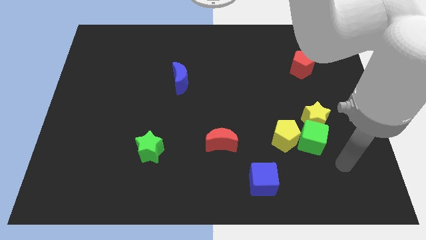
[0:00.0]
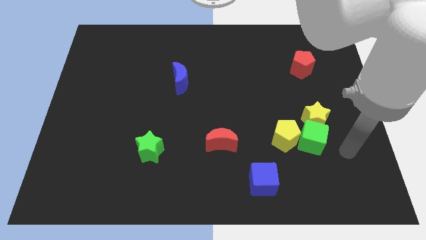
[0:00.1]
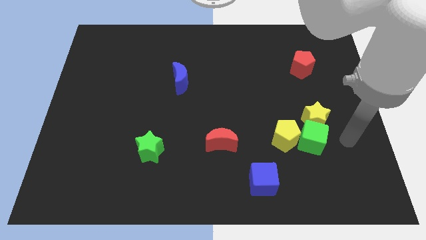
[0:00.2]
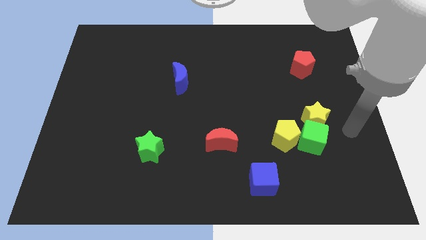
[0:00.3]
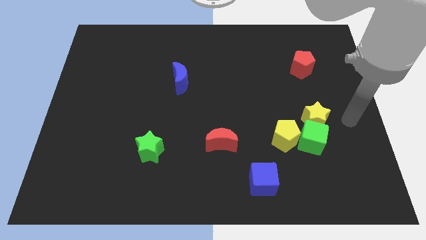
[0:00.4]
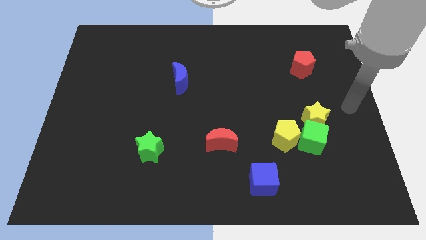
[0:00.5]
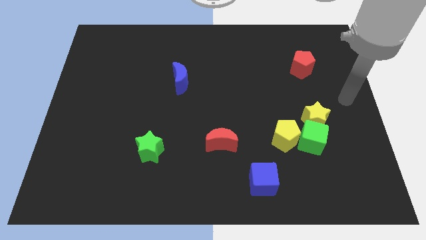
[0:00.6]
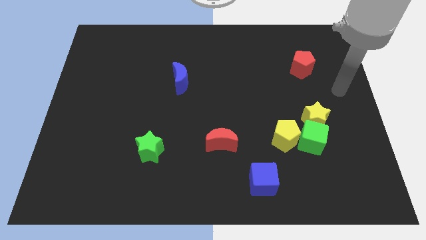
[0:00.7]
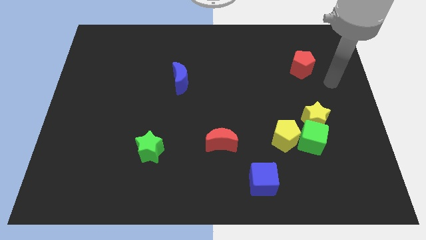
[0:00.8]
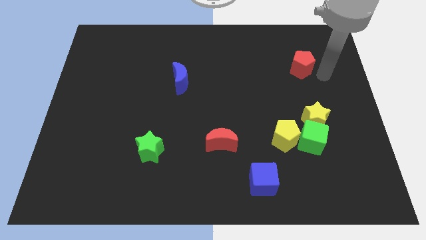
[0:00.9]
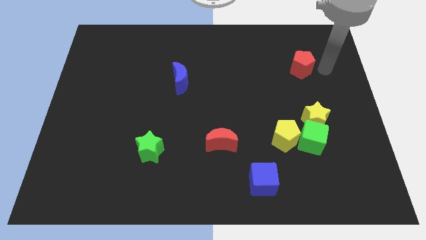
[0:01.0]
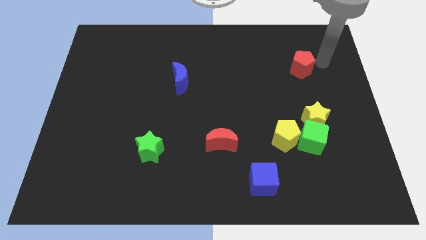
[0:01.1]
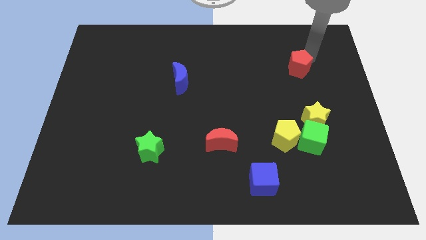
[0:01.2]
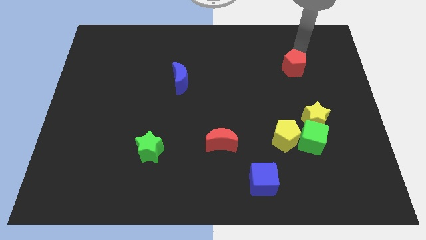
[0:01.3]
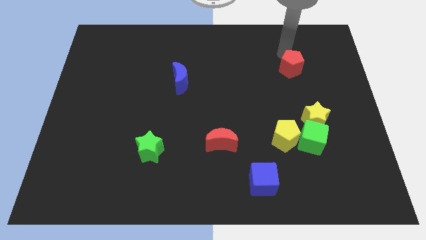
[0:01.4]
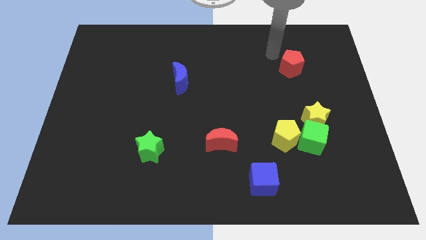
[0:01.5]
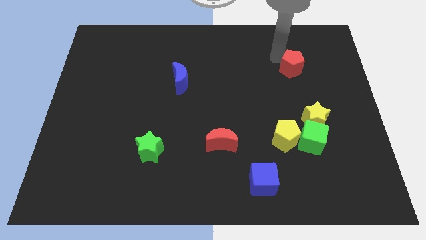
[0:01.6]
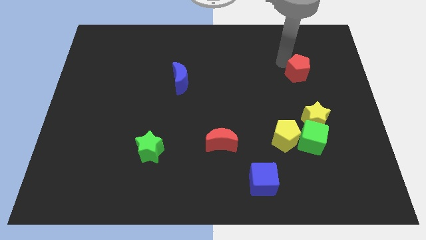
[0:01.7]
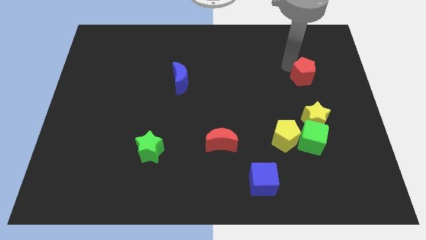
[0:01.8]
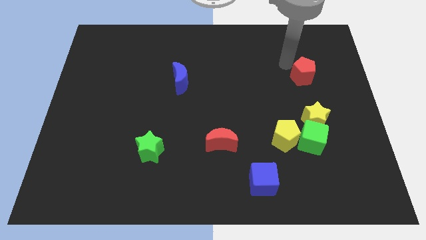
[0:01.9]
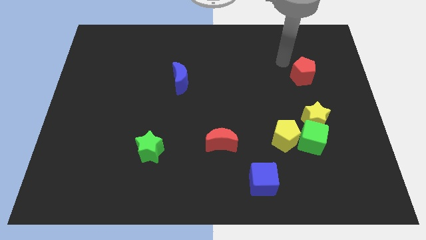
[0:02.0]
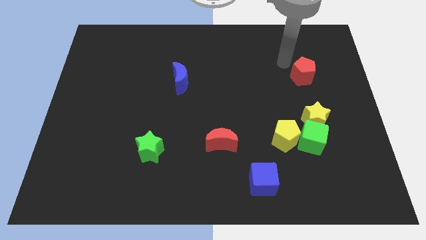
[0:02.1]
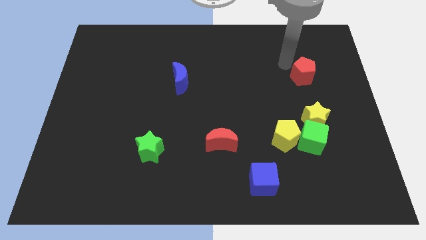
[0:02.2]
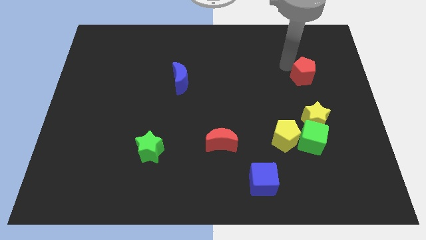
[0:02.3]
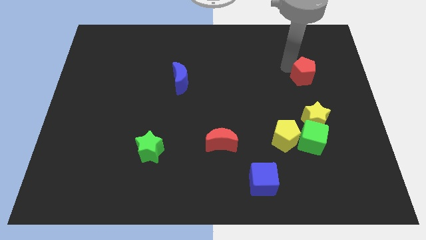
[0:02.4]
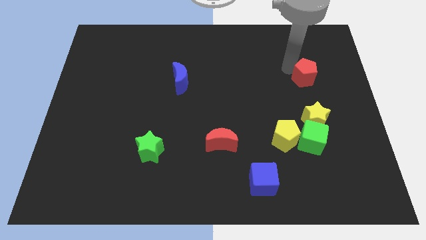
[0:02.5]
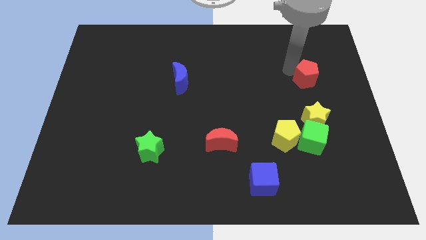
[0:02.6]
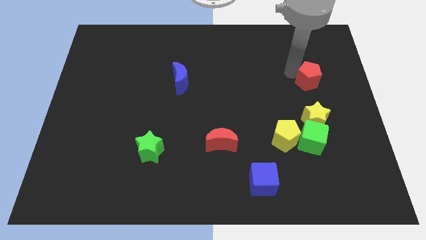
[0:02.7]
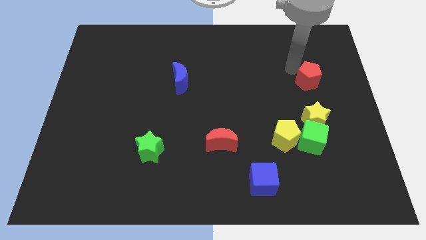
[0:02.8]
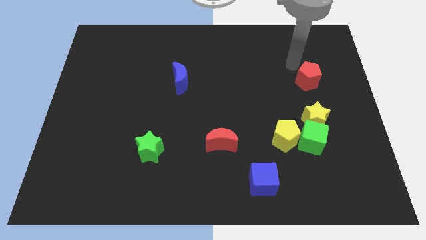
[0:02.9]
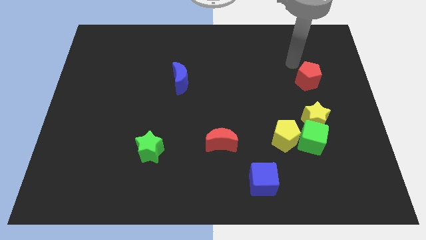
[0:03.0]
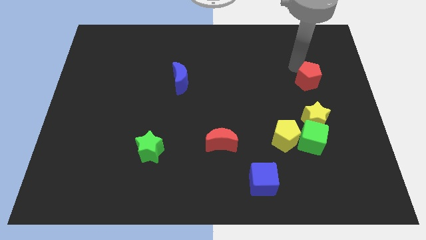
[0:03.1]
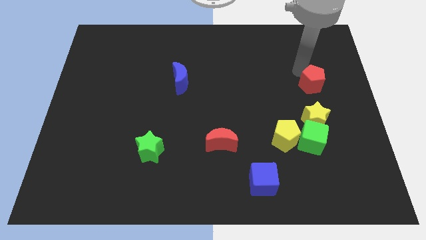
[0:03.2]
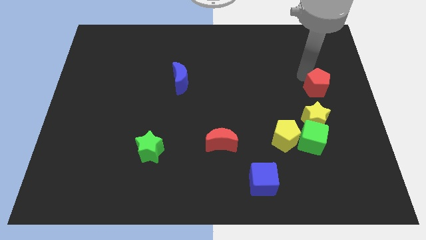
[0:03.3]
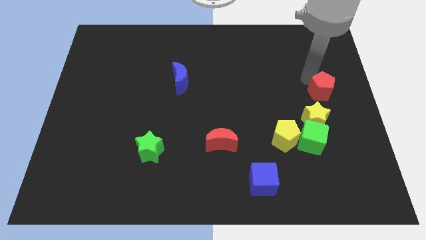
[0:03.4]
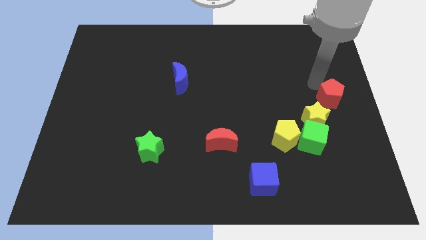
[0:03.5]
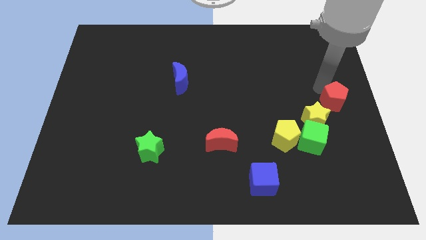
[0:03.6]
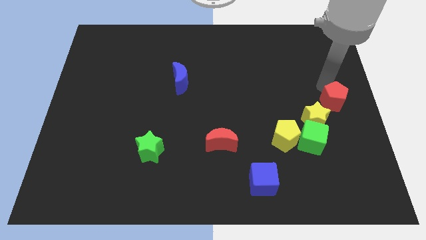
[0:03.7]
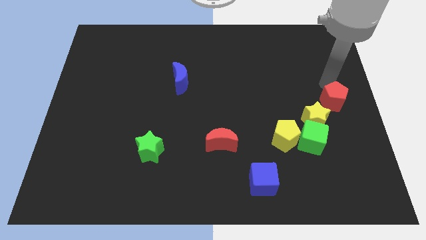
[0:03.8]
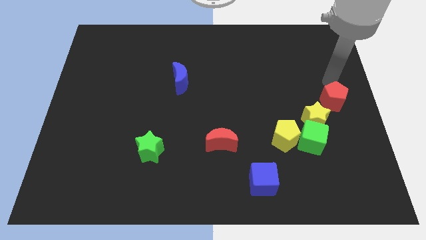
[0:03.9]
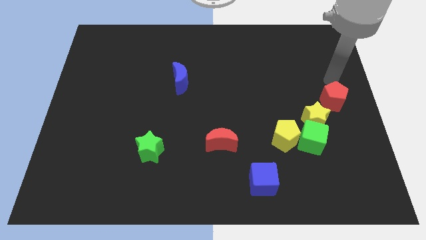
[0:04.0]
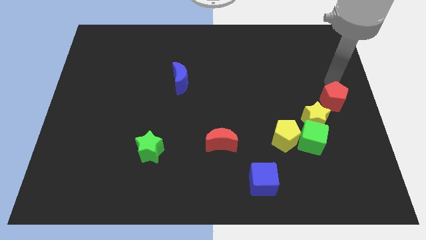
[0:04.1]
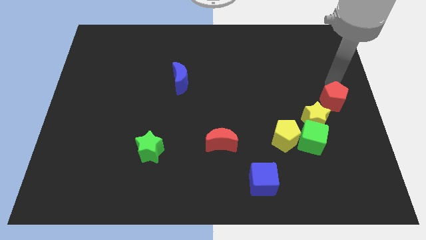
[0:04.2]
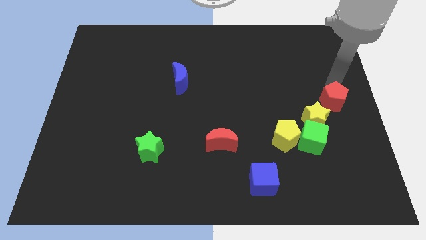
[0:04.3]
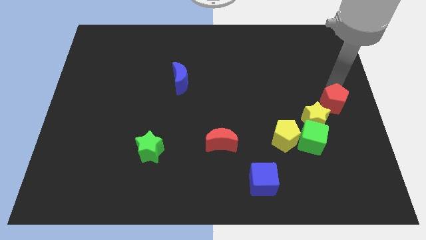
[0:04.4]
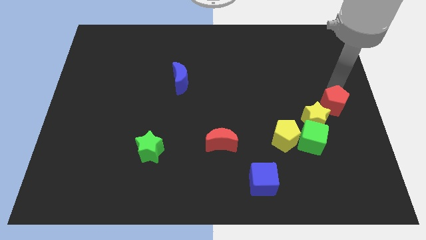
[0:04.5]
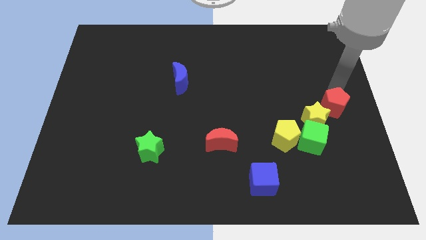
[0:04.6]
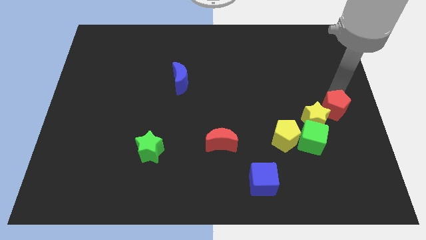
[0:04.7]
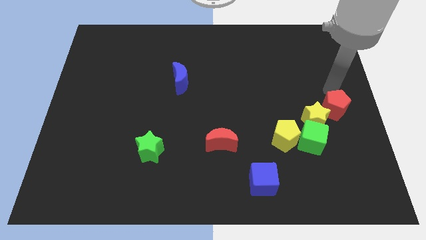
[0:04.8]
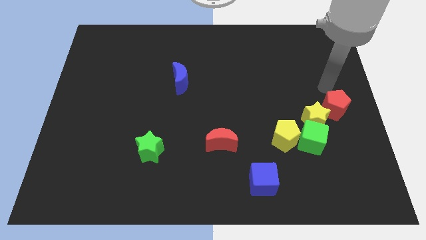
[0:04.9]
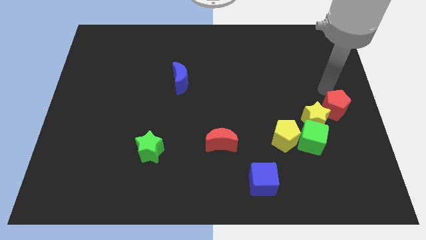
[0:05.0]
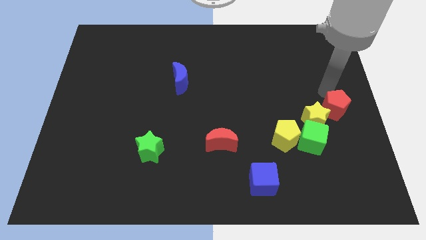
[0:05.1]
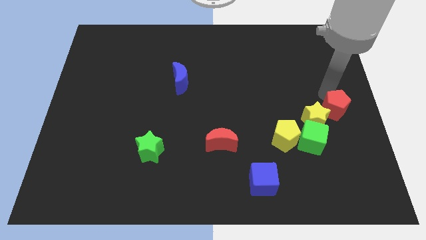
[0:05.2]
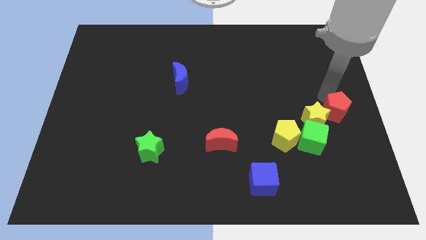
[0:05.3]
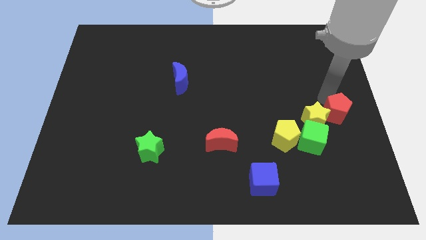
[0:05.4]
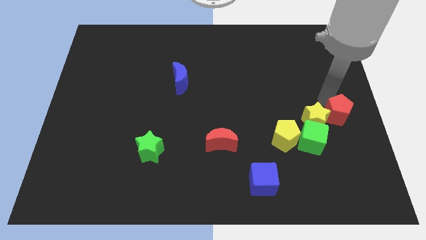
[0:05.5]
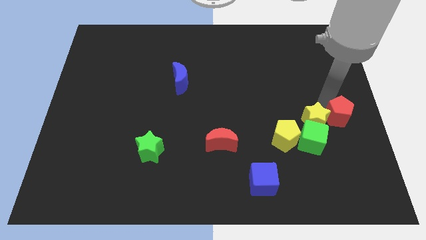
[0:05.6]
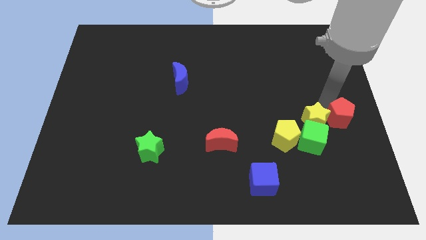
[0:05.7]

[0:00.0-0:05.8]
slide the red pentagon to the bottom right of the yellow star

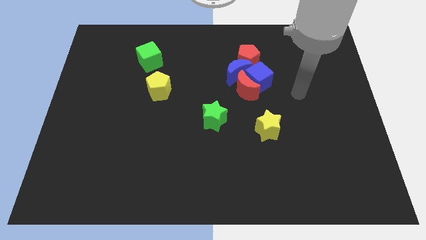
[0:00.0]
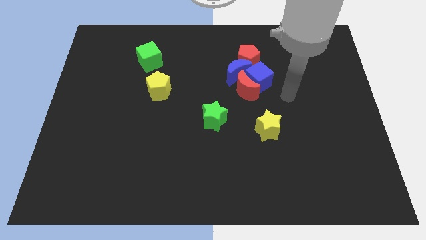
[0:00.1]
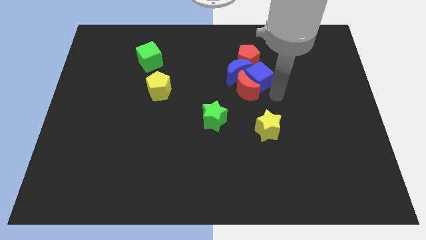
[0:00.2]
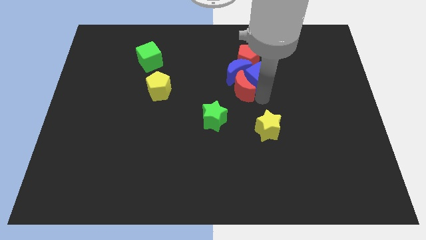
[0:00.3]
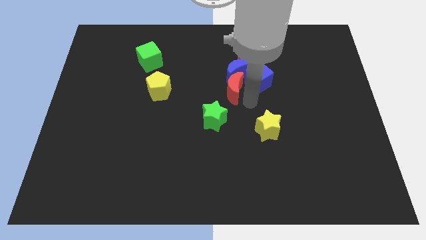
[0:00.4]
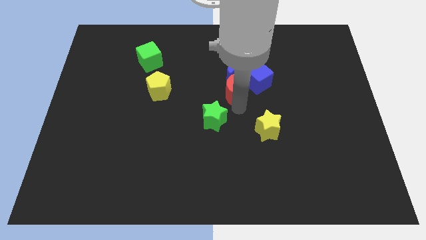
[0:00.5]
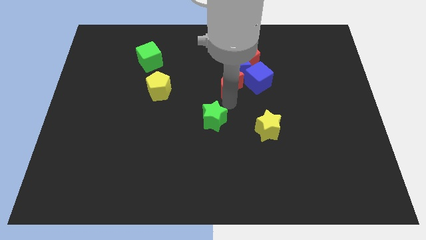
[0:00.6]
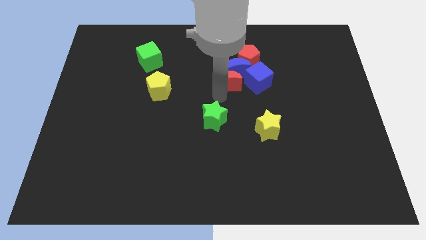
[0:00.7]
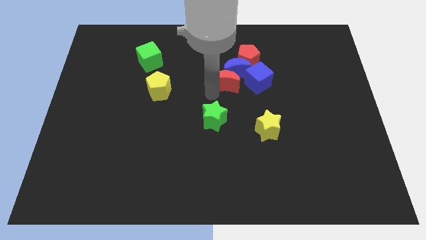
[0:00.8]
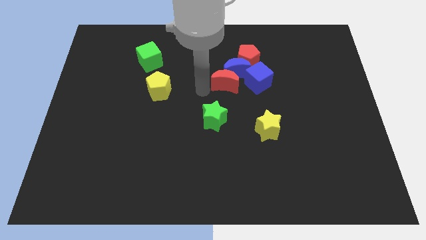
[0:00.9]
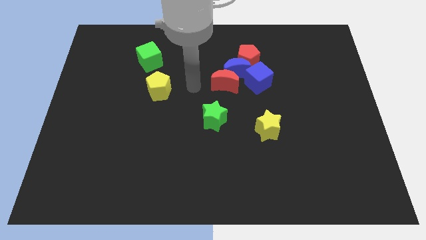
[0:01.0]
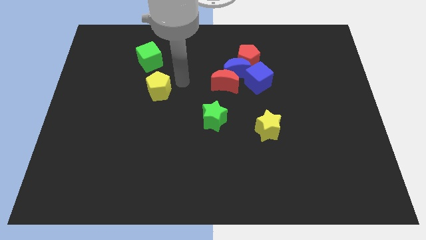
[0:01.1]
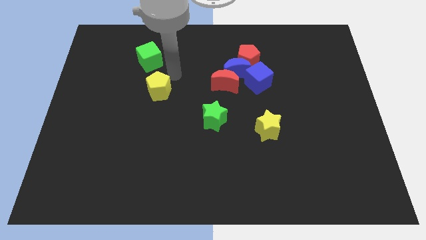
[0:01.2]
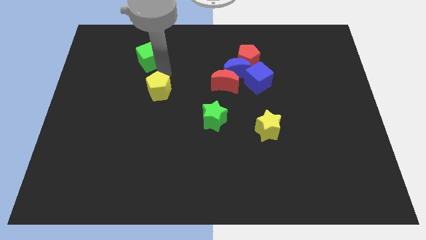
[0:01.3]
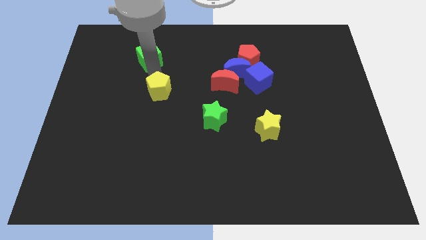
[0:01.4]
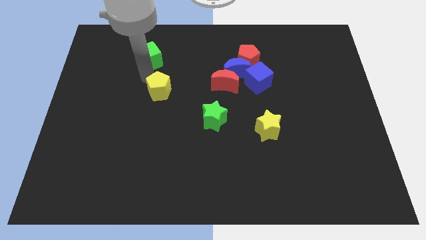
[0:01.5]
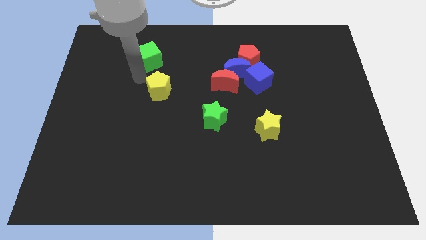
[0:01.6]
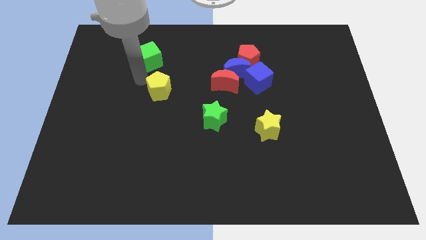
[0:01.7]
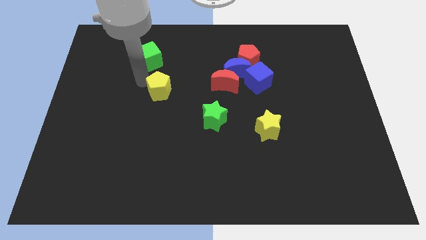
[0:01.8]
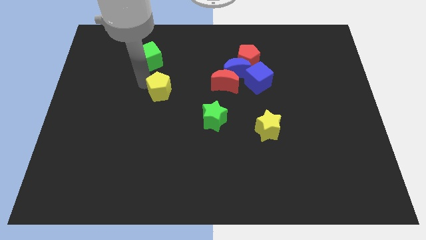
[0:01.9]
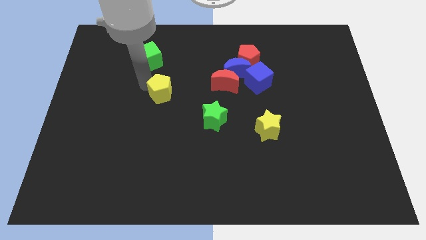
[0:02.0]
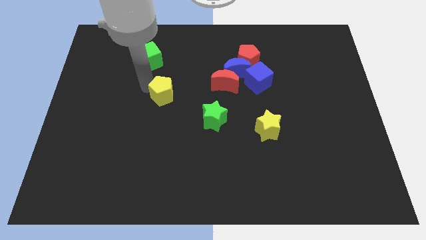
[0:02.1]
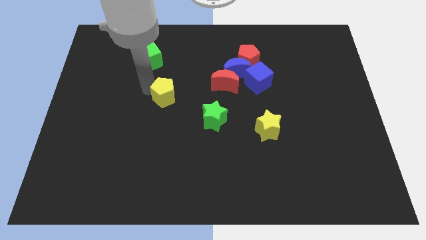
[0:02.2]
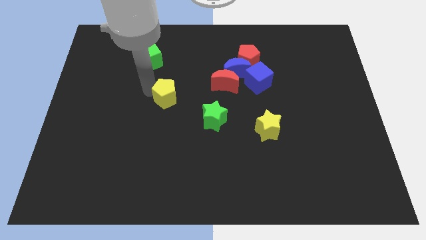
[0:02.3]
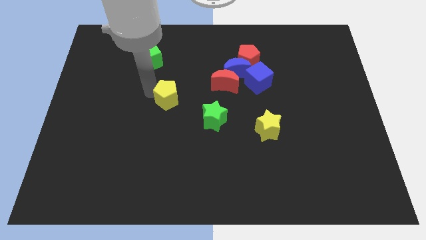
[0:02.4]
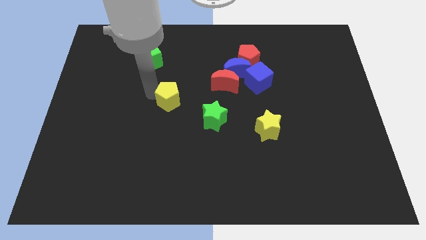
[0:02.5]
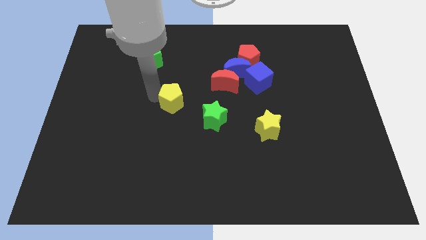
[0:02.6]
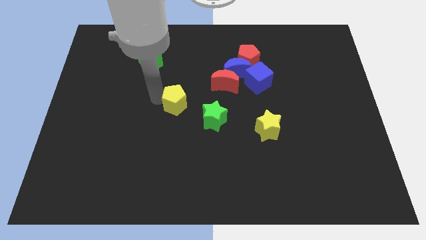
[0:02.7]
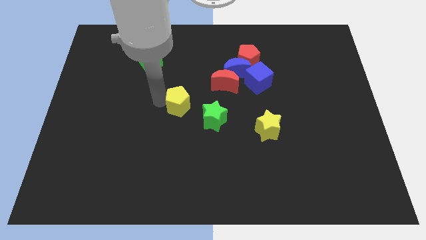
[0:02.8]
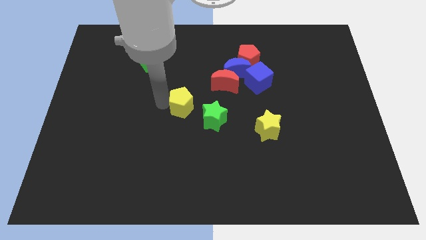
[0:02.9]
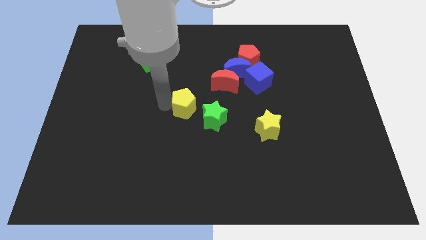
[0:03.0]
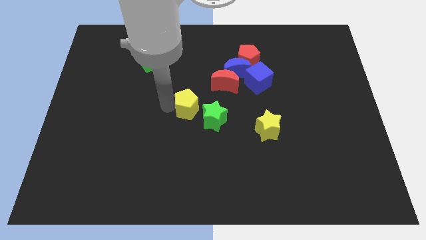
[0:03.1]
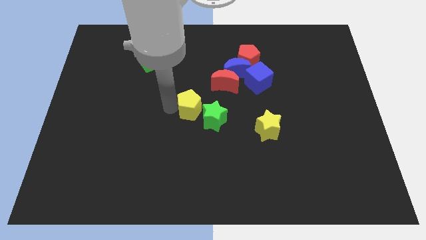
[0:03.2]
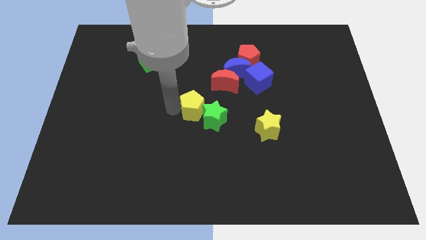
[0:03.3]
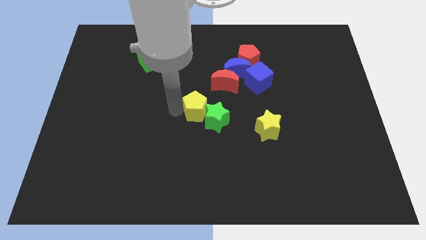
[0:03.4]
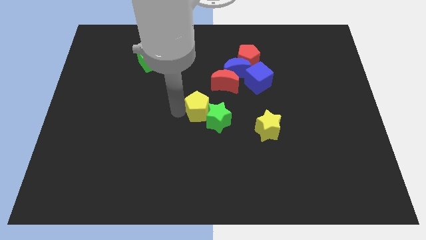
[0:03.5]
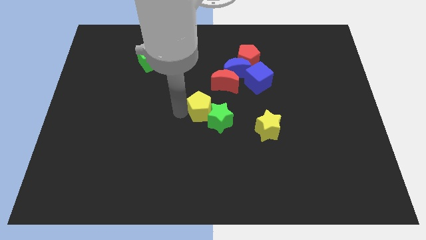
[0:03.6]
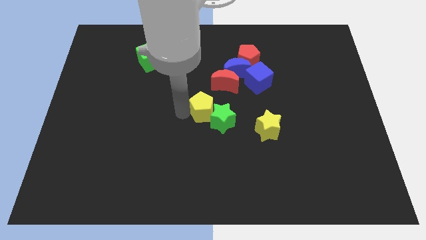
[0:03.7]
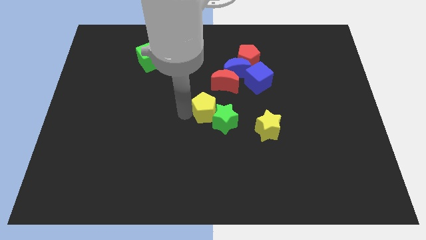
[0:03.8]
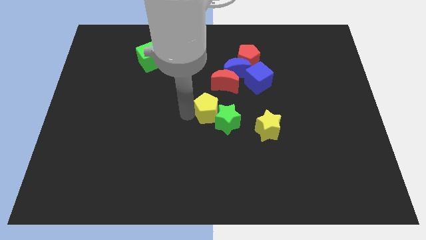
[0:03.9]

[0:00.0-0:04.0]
slide the yellow pentagon to the bottom of the red moon
